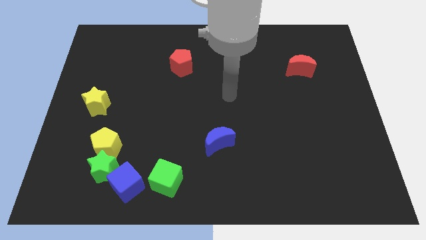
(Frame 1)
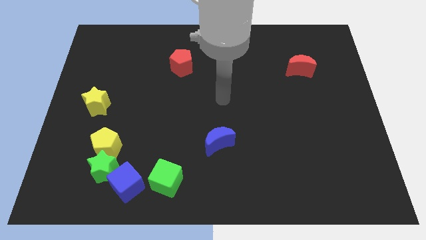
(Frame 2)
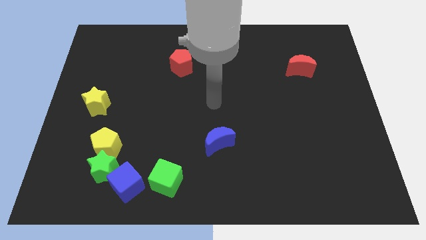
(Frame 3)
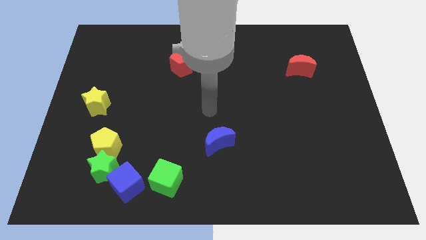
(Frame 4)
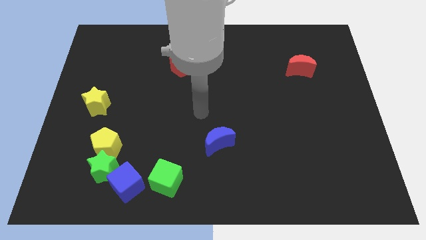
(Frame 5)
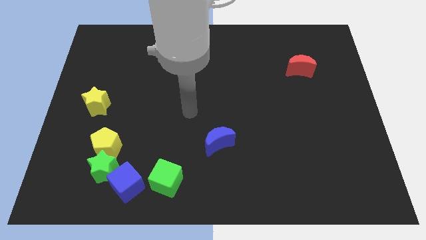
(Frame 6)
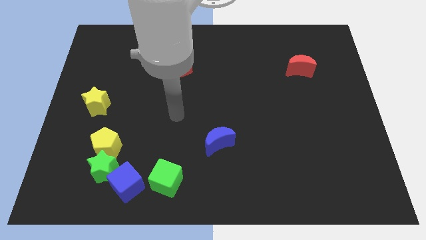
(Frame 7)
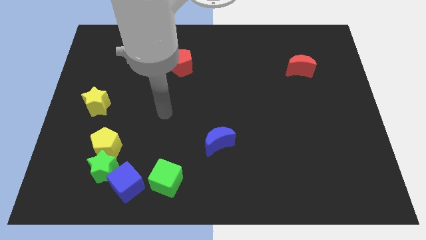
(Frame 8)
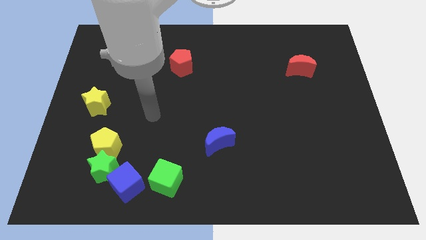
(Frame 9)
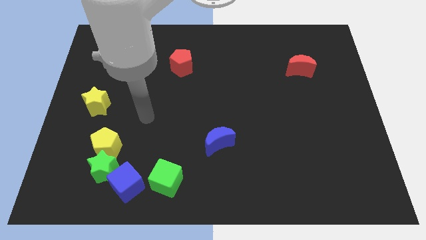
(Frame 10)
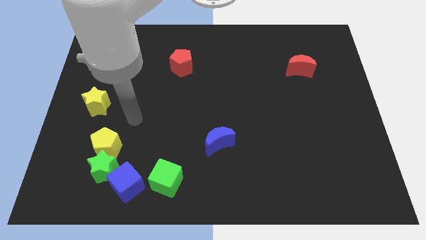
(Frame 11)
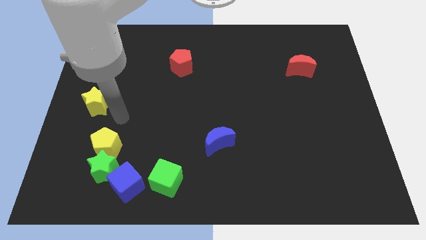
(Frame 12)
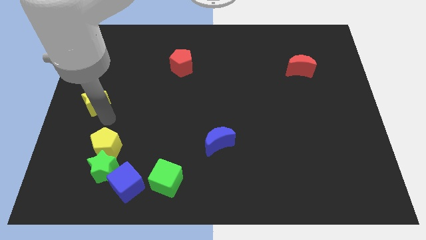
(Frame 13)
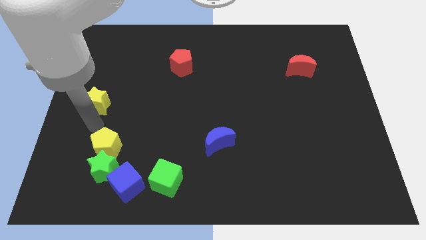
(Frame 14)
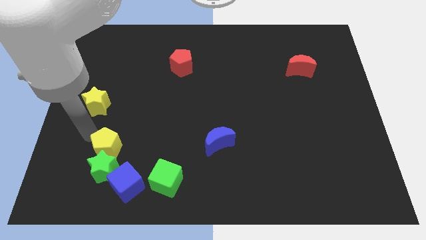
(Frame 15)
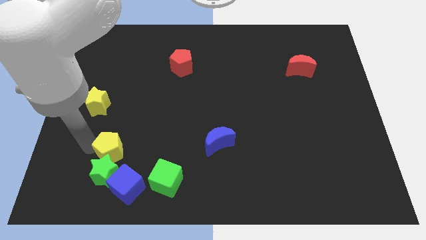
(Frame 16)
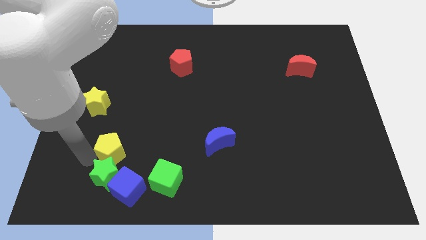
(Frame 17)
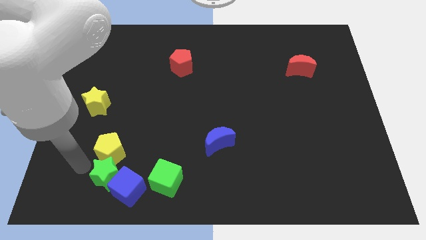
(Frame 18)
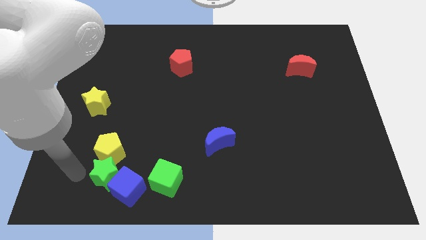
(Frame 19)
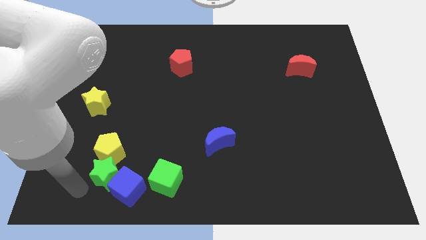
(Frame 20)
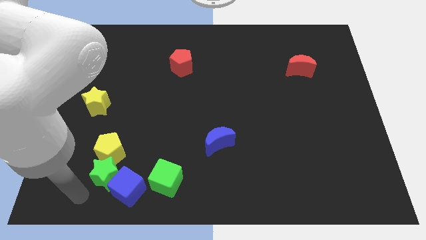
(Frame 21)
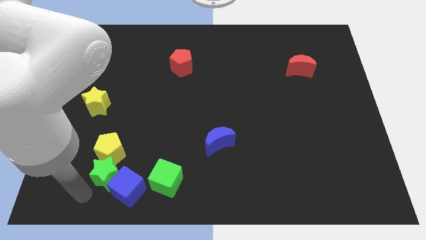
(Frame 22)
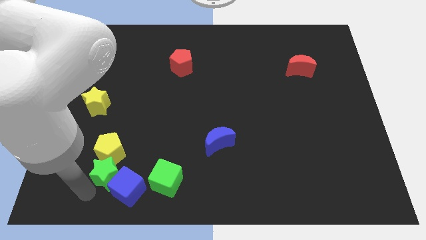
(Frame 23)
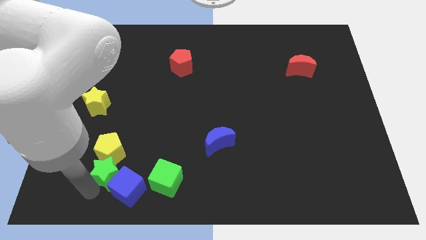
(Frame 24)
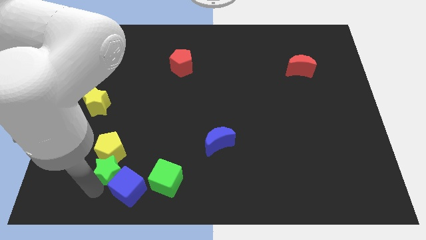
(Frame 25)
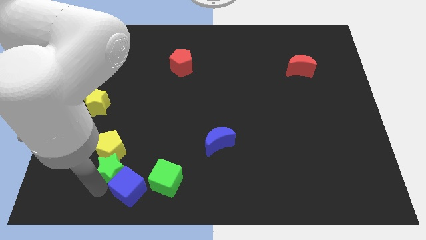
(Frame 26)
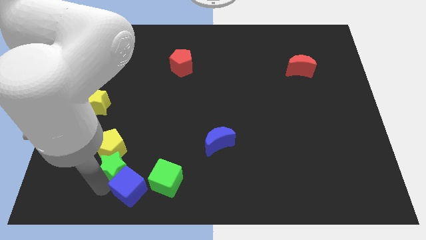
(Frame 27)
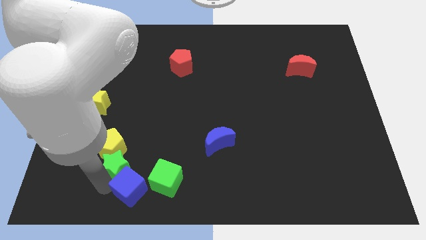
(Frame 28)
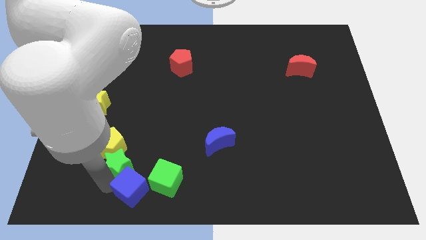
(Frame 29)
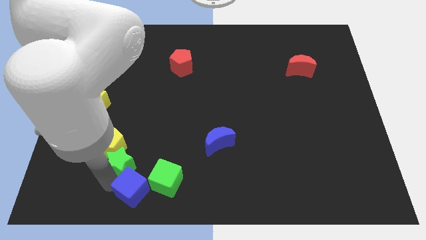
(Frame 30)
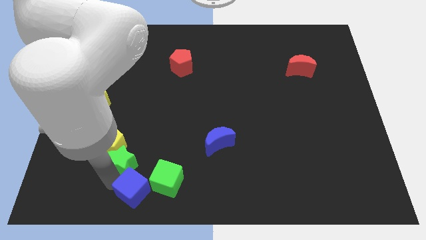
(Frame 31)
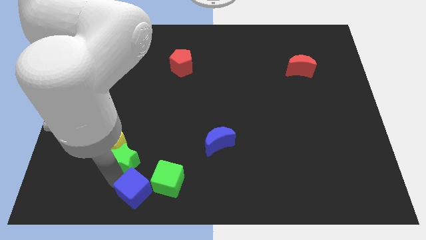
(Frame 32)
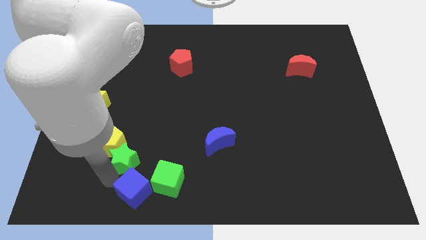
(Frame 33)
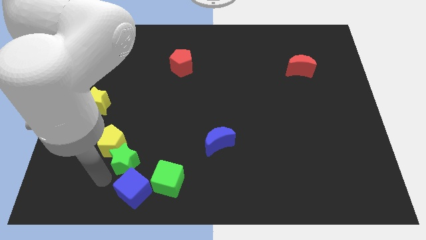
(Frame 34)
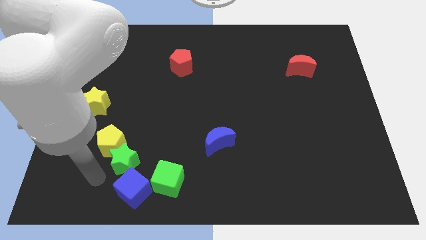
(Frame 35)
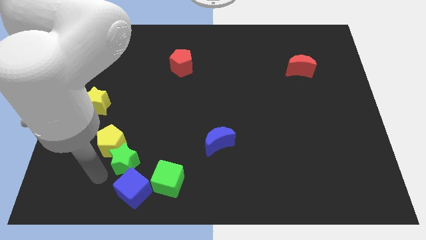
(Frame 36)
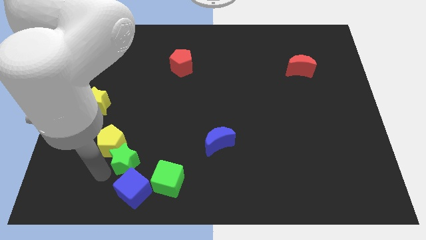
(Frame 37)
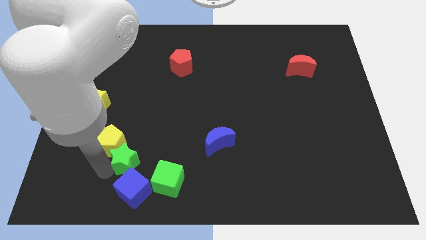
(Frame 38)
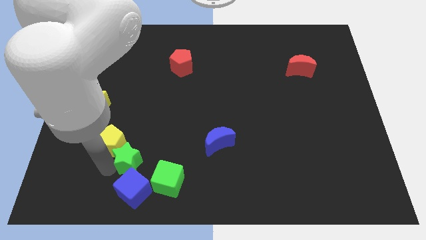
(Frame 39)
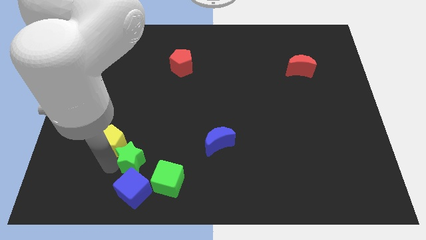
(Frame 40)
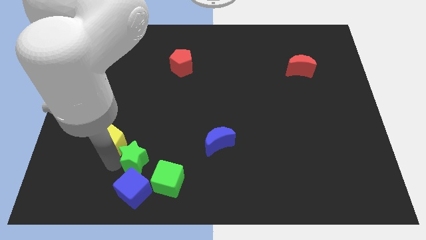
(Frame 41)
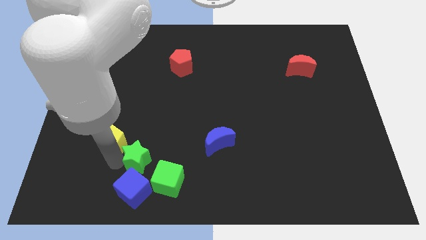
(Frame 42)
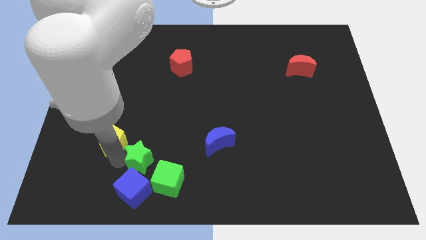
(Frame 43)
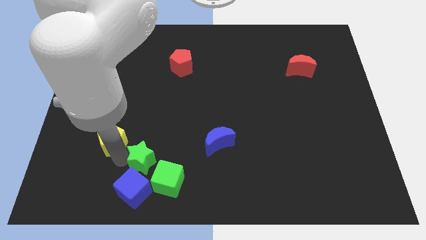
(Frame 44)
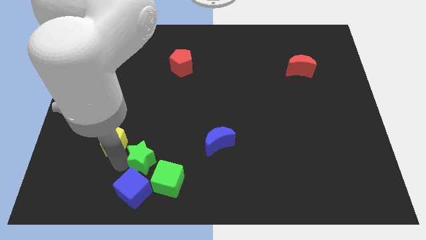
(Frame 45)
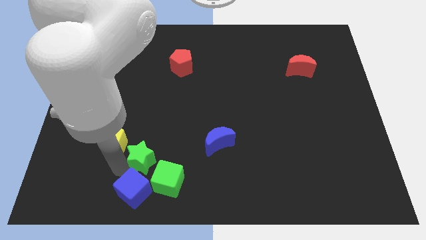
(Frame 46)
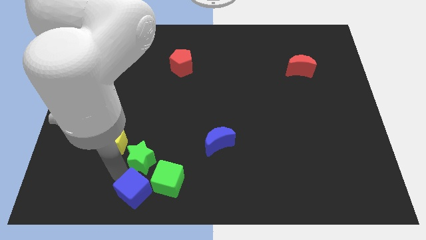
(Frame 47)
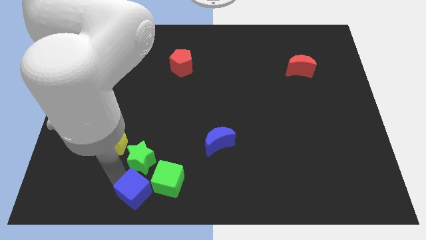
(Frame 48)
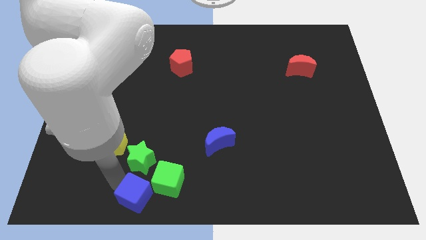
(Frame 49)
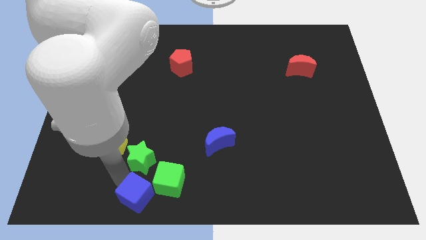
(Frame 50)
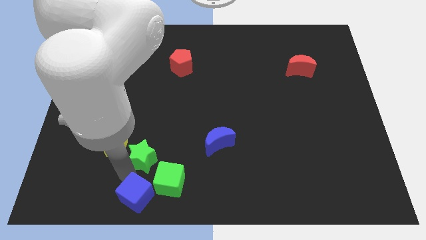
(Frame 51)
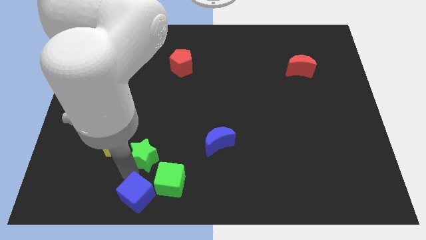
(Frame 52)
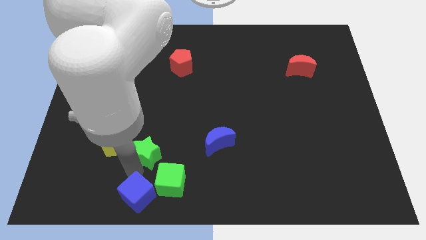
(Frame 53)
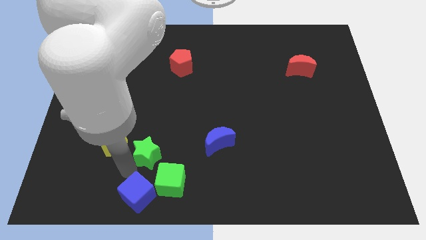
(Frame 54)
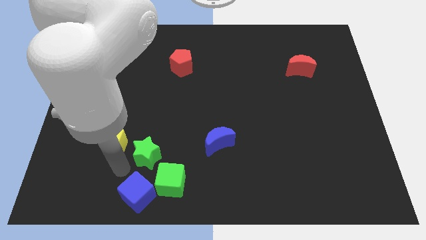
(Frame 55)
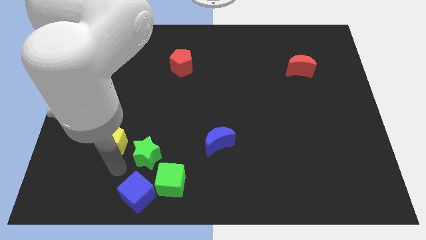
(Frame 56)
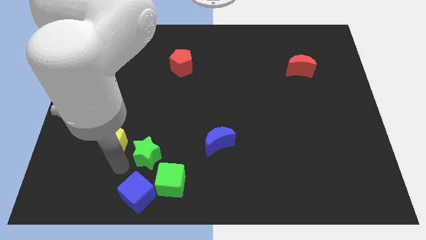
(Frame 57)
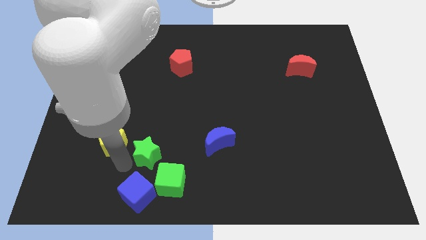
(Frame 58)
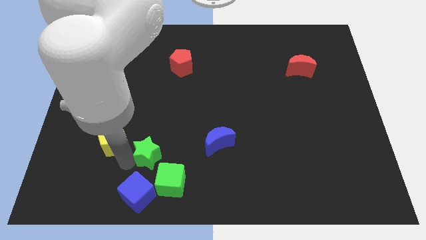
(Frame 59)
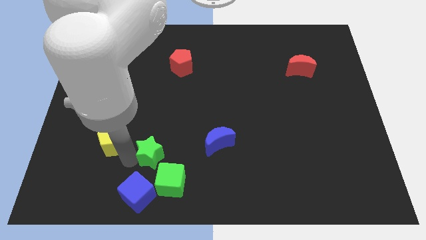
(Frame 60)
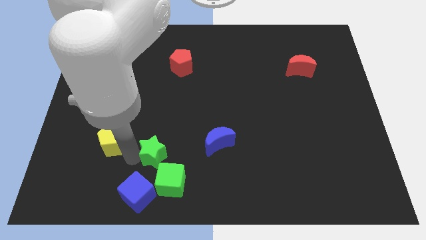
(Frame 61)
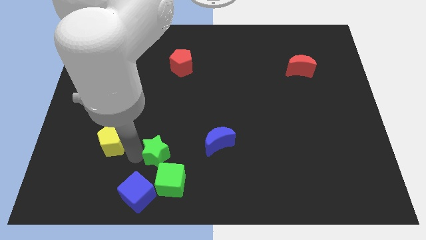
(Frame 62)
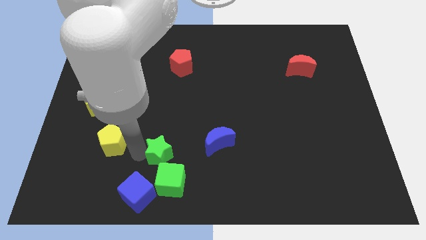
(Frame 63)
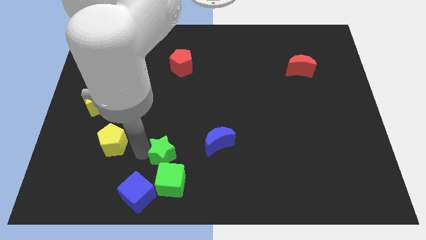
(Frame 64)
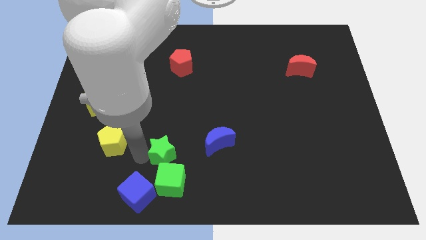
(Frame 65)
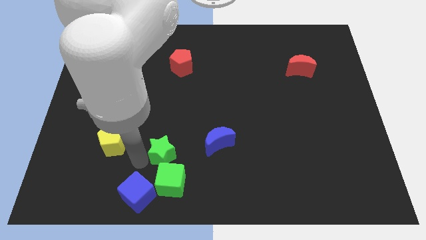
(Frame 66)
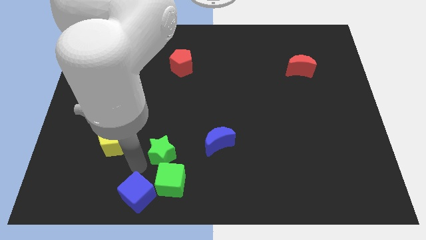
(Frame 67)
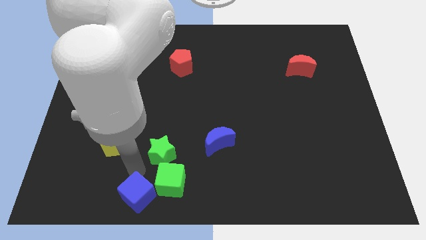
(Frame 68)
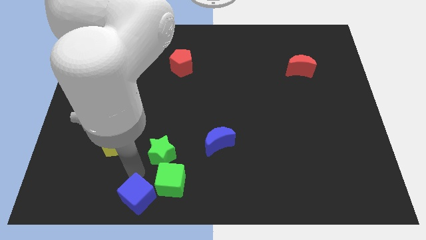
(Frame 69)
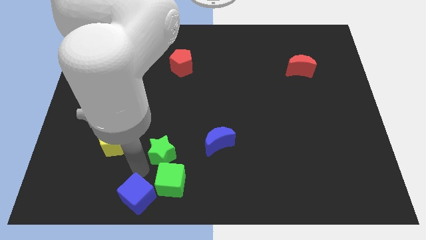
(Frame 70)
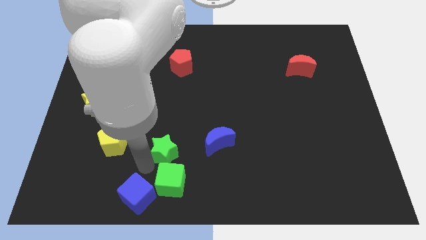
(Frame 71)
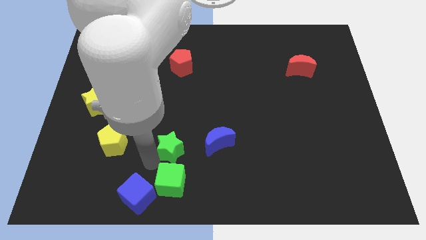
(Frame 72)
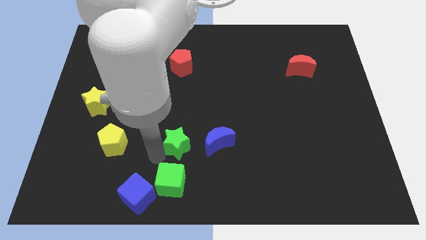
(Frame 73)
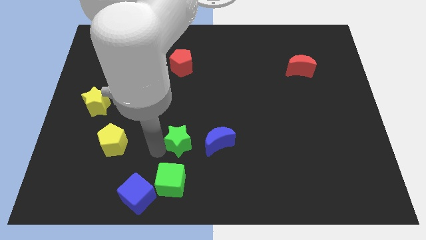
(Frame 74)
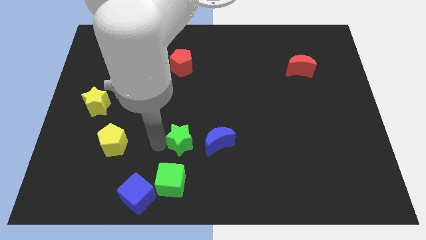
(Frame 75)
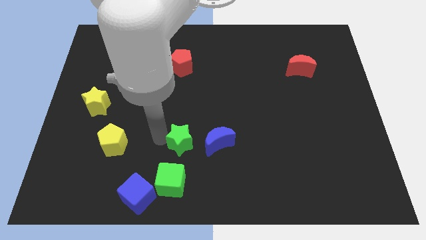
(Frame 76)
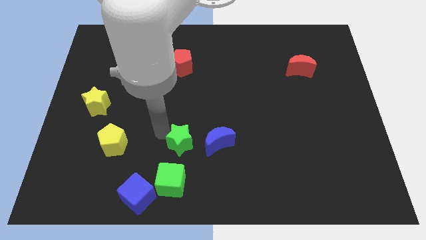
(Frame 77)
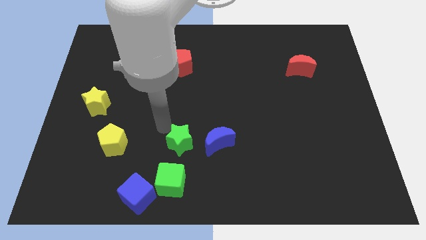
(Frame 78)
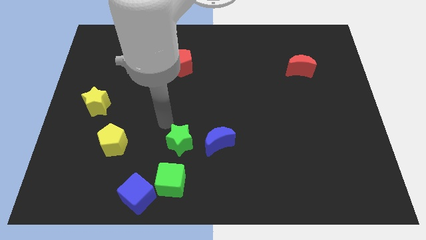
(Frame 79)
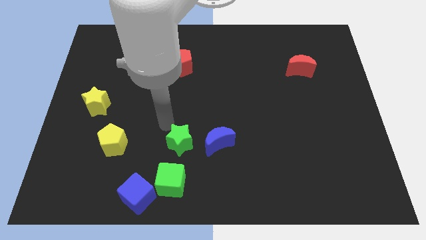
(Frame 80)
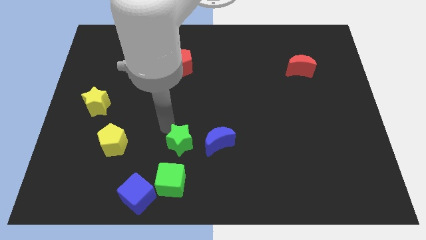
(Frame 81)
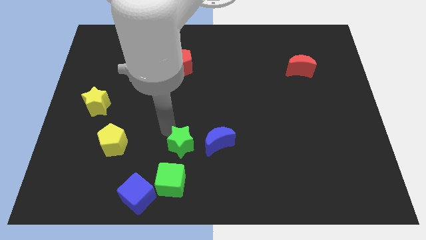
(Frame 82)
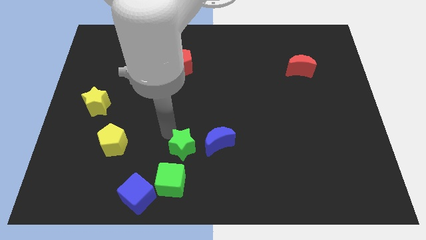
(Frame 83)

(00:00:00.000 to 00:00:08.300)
put the green star diagonally down and to the left of the blue moon
